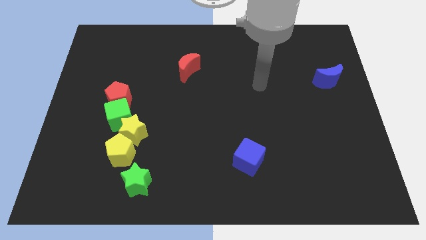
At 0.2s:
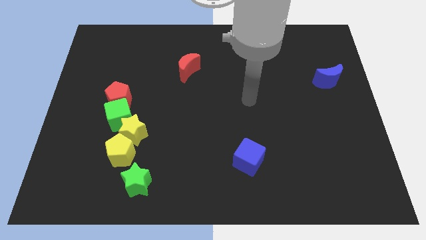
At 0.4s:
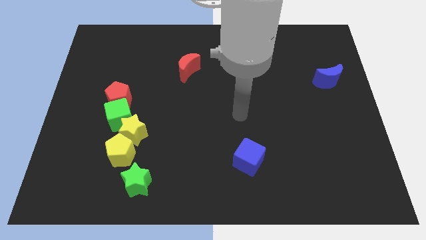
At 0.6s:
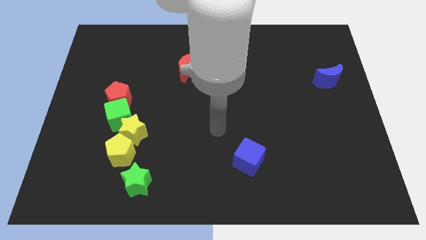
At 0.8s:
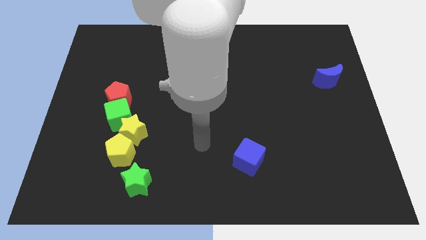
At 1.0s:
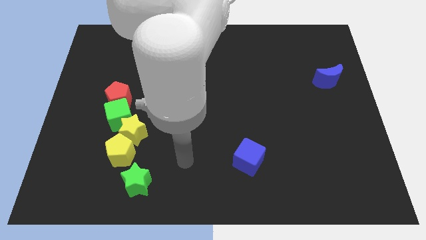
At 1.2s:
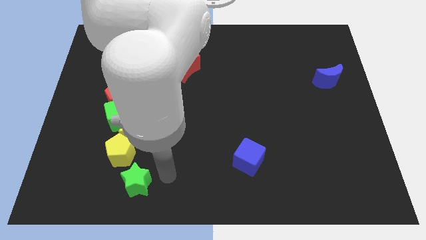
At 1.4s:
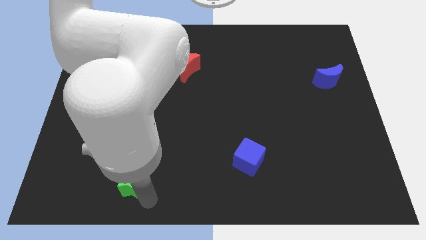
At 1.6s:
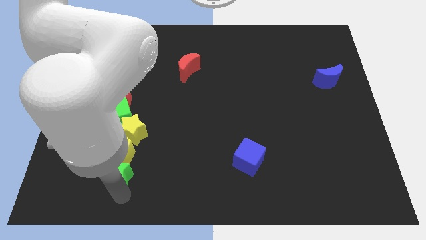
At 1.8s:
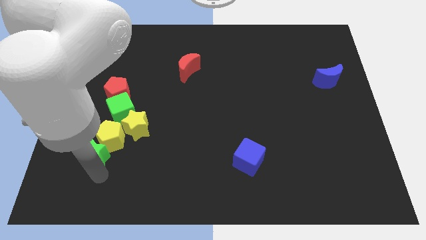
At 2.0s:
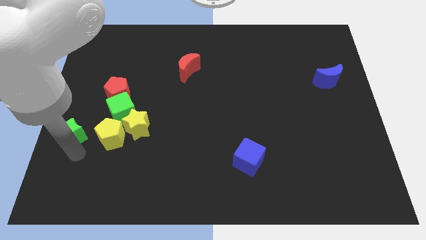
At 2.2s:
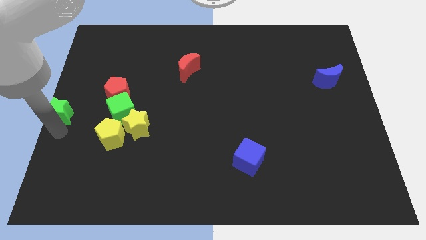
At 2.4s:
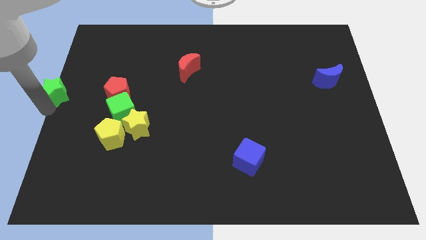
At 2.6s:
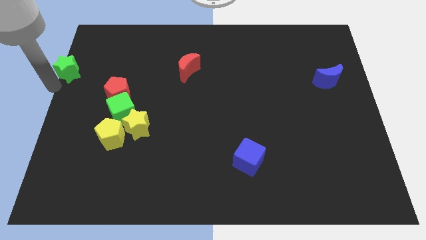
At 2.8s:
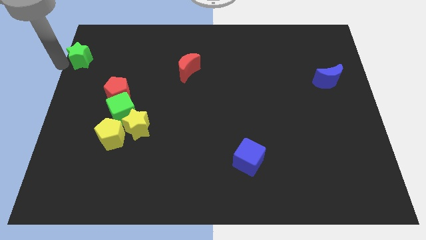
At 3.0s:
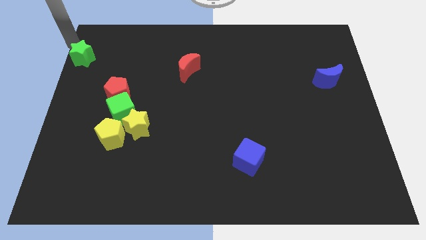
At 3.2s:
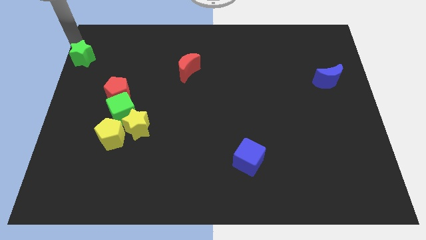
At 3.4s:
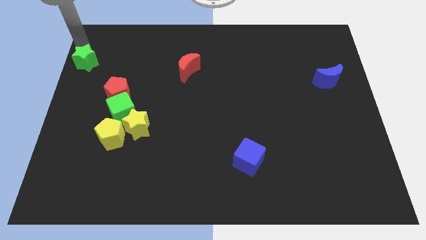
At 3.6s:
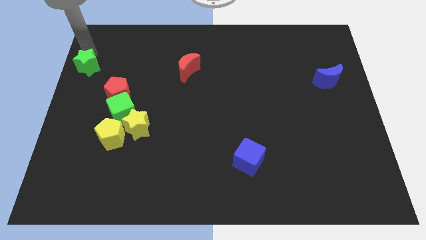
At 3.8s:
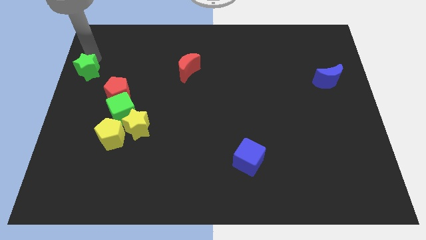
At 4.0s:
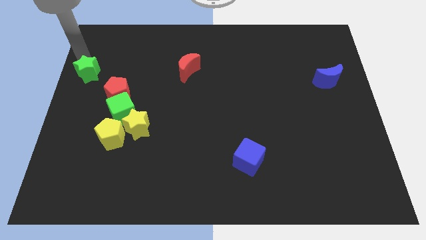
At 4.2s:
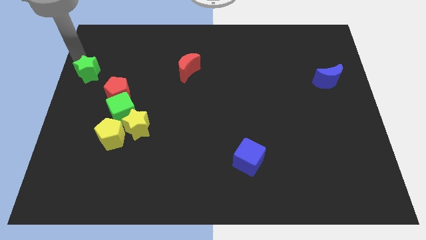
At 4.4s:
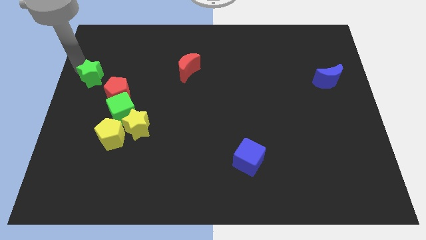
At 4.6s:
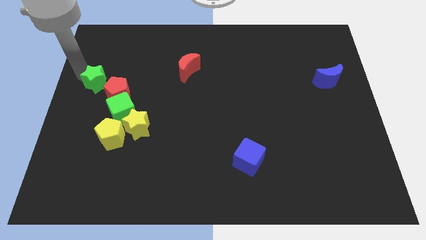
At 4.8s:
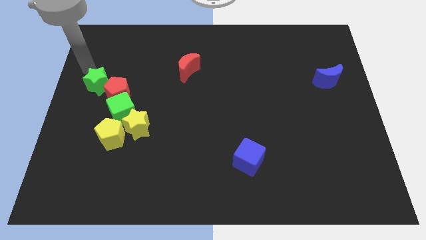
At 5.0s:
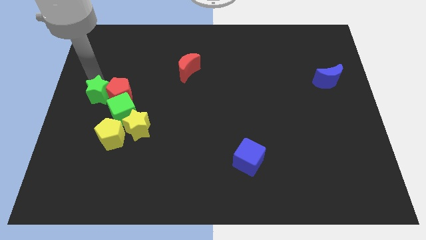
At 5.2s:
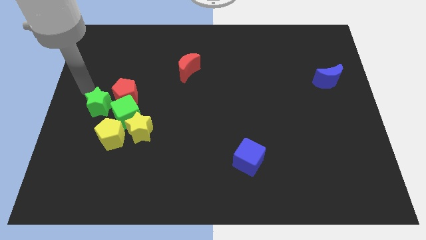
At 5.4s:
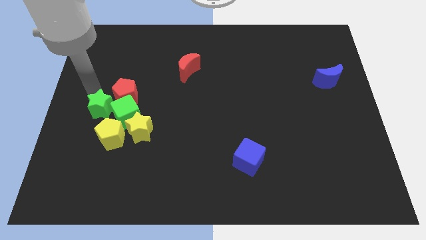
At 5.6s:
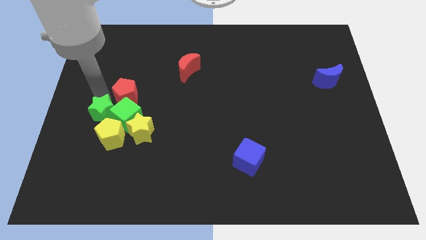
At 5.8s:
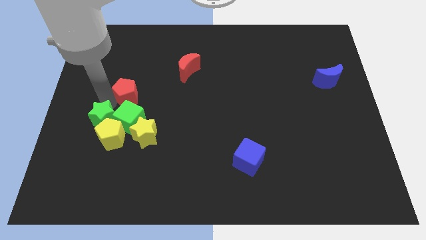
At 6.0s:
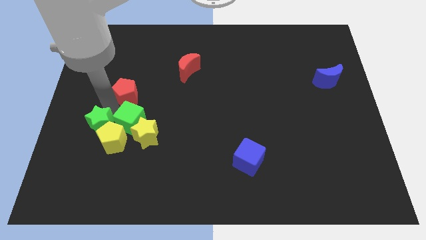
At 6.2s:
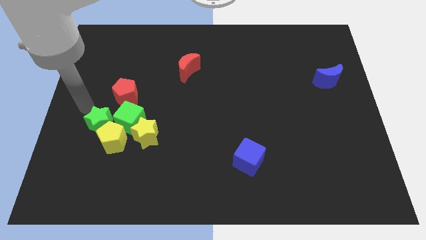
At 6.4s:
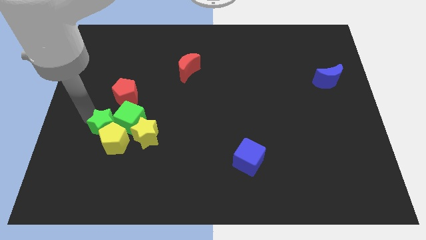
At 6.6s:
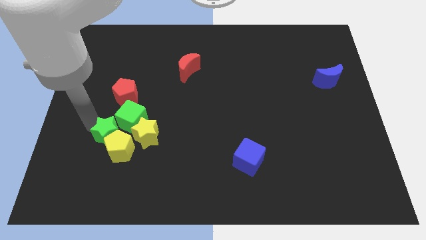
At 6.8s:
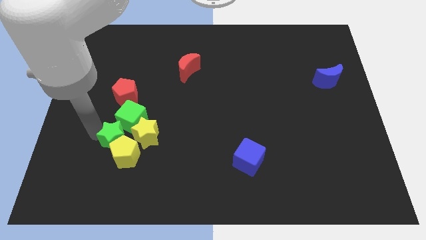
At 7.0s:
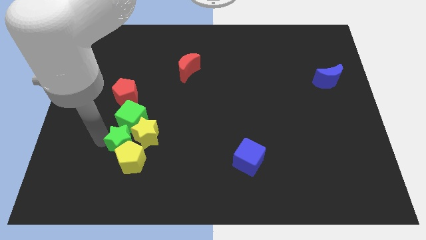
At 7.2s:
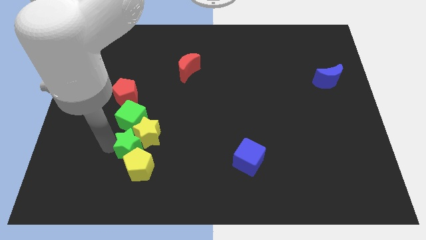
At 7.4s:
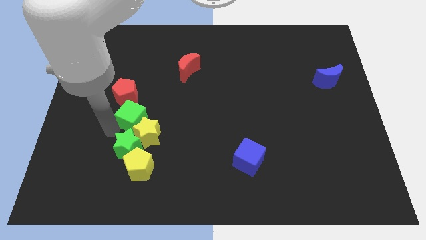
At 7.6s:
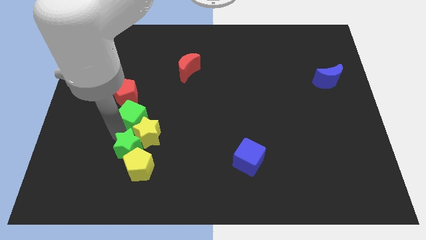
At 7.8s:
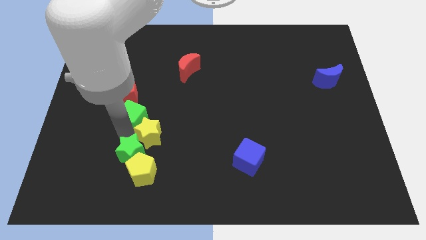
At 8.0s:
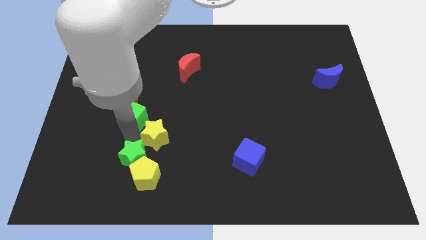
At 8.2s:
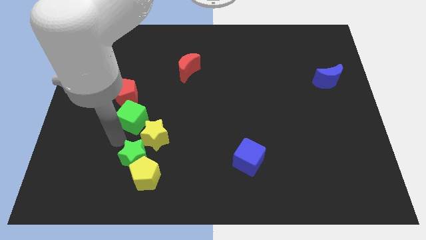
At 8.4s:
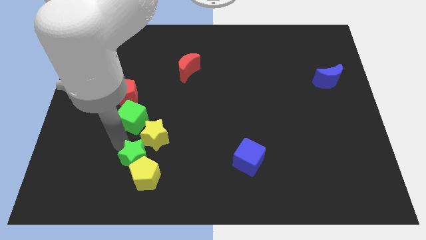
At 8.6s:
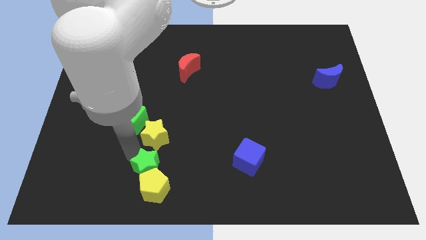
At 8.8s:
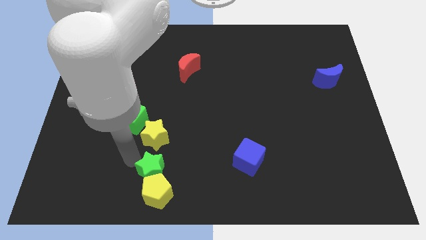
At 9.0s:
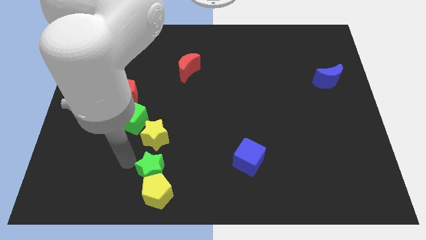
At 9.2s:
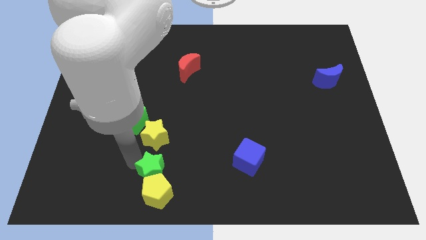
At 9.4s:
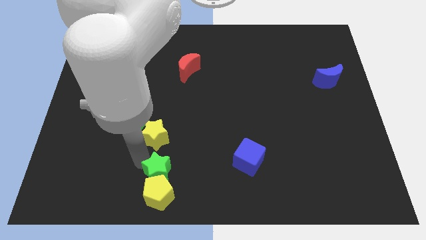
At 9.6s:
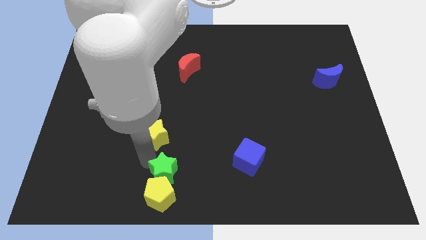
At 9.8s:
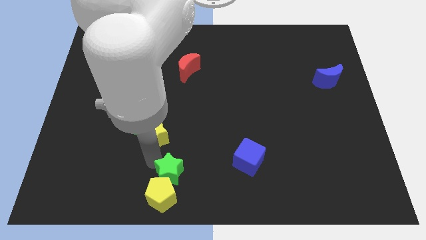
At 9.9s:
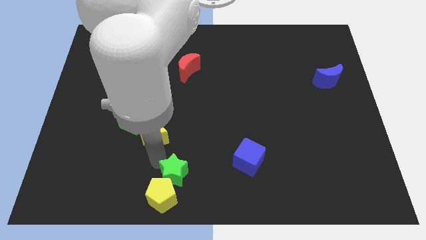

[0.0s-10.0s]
move the green star somewhat right

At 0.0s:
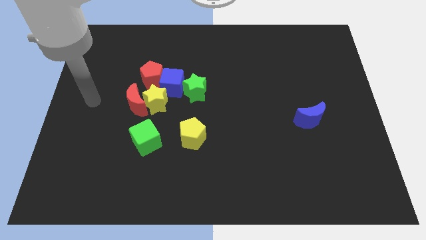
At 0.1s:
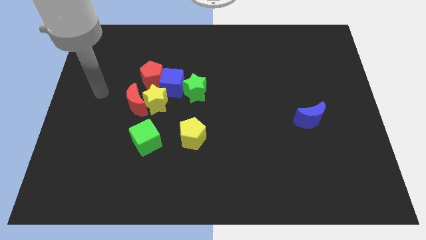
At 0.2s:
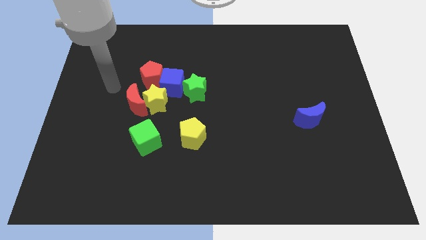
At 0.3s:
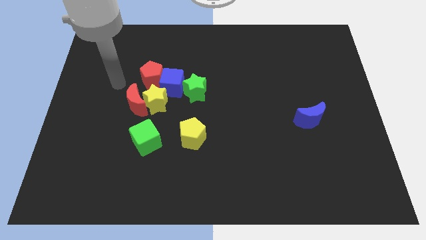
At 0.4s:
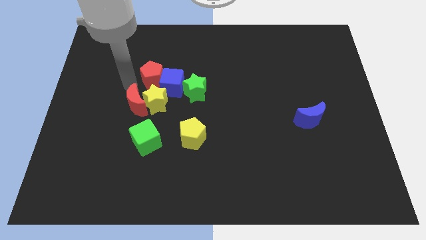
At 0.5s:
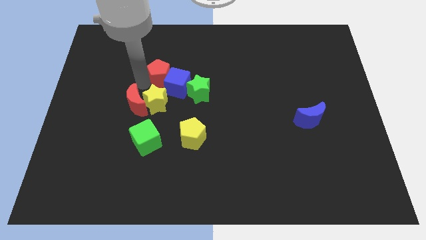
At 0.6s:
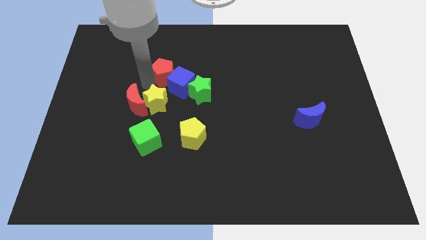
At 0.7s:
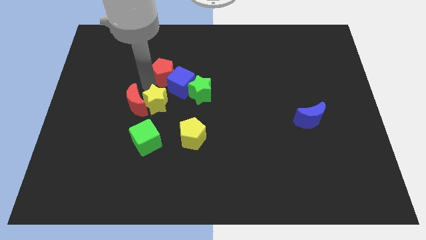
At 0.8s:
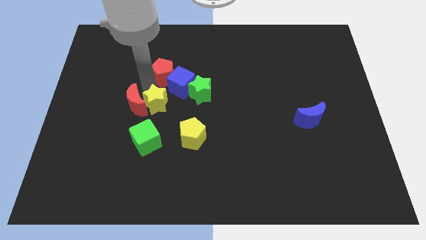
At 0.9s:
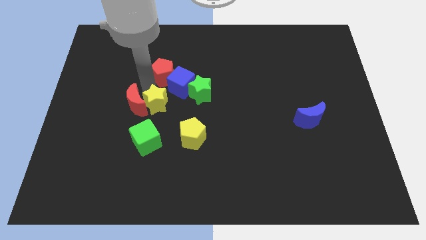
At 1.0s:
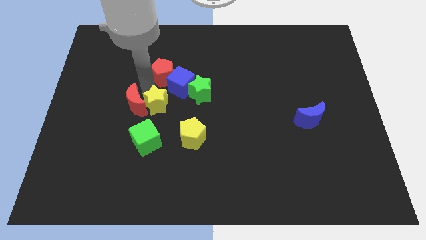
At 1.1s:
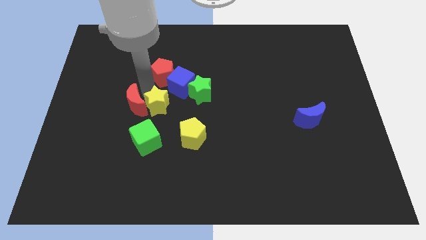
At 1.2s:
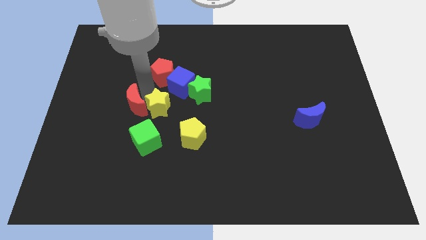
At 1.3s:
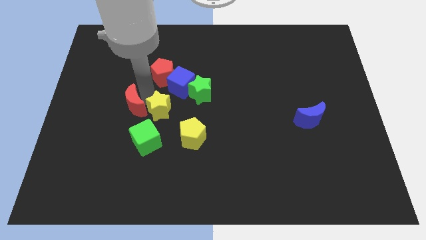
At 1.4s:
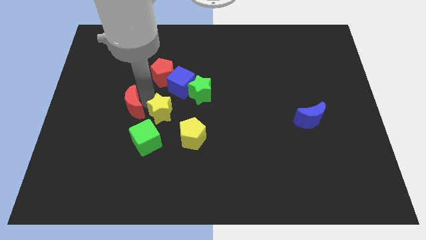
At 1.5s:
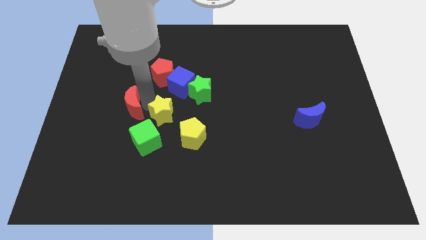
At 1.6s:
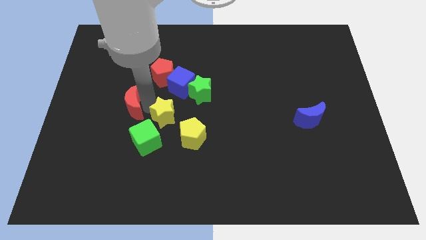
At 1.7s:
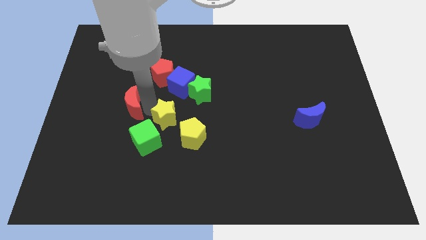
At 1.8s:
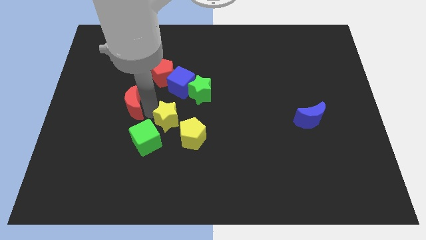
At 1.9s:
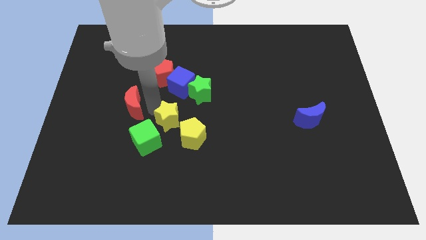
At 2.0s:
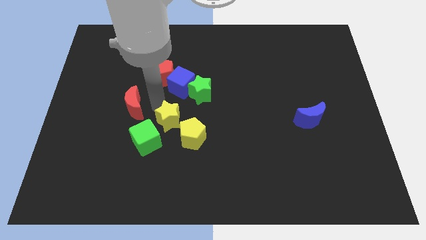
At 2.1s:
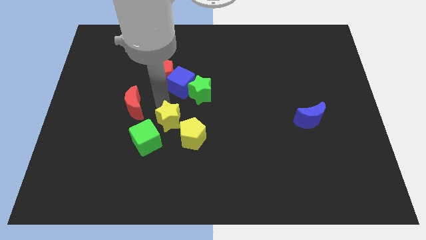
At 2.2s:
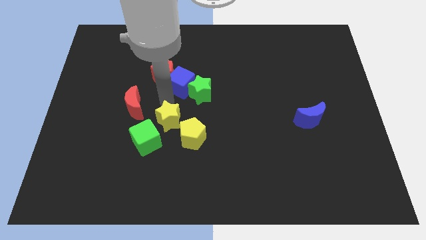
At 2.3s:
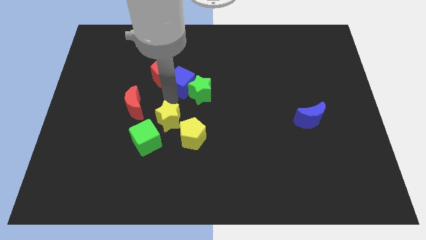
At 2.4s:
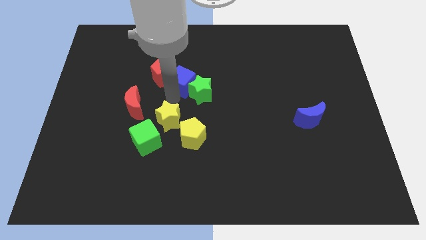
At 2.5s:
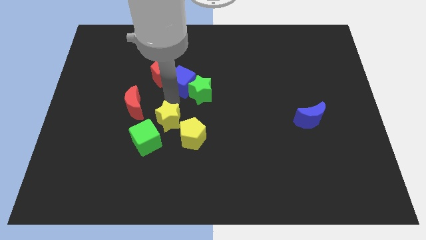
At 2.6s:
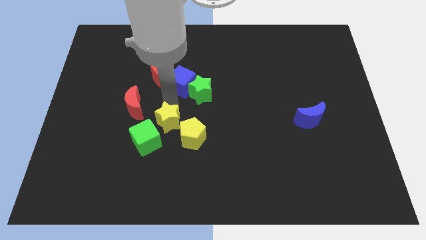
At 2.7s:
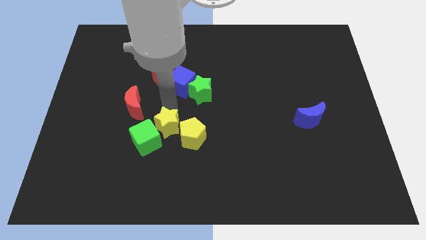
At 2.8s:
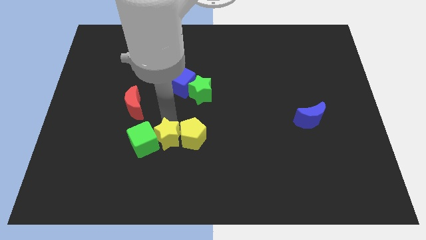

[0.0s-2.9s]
push the yellow star down a little bit
